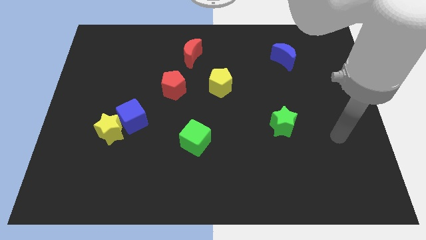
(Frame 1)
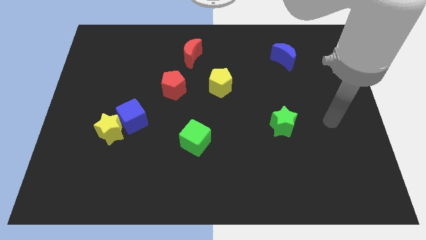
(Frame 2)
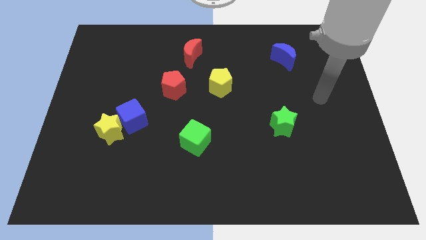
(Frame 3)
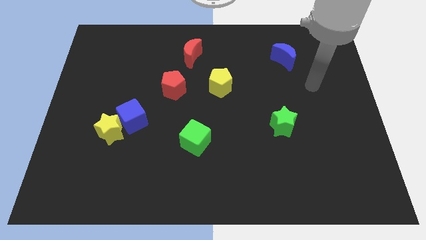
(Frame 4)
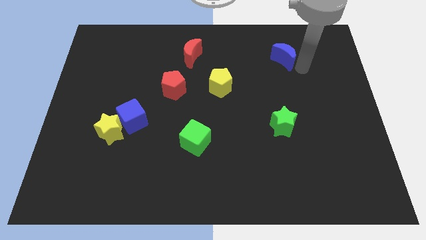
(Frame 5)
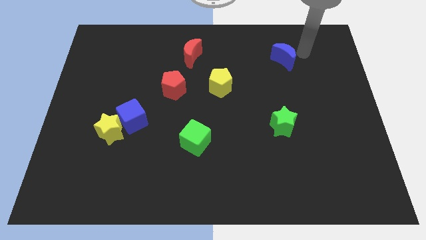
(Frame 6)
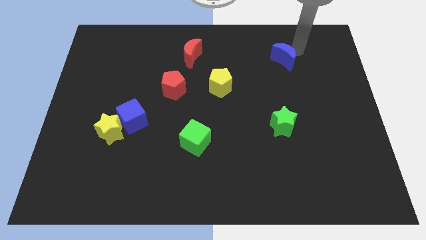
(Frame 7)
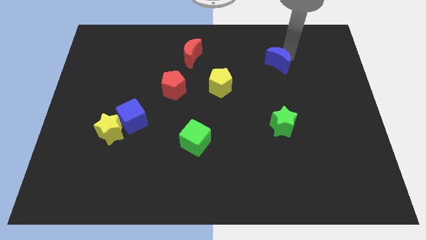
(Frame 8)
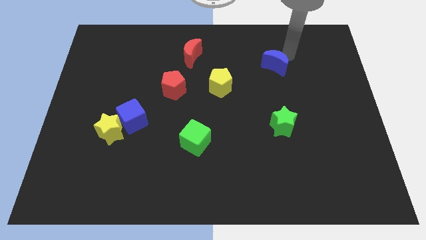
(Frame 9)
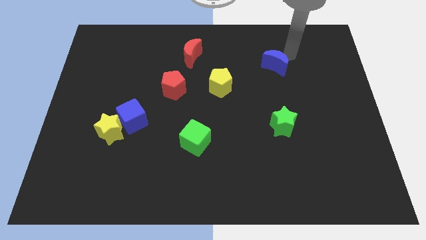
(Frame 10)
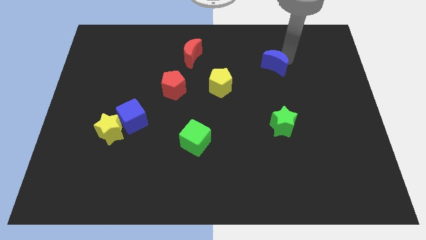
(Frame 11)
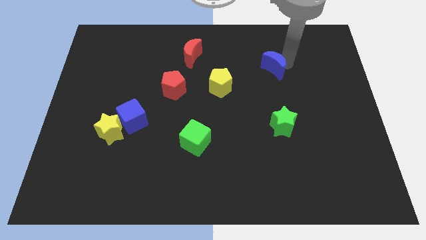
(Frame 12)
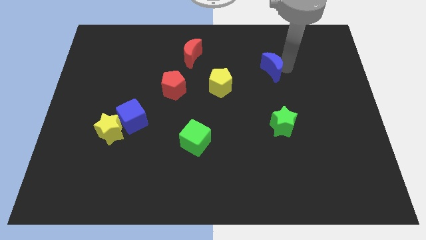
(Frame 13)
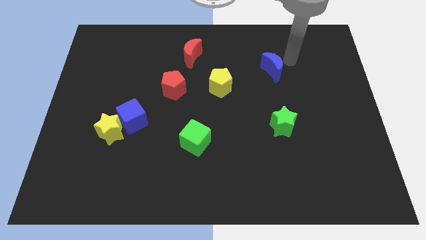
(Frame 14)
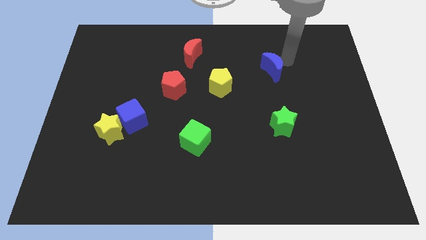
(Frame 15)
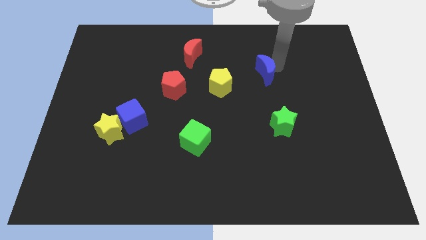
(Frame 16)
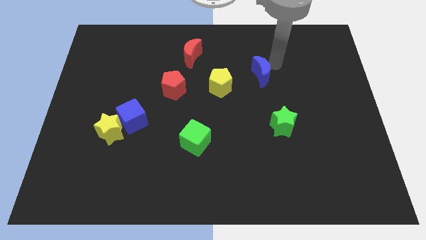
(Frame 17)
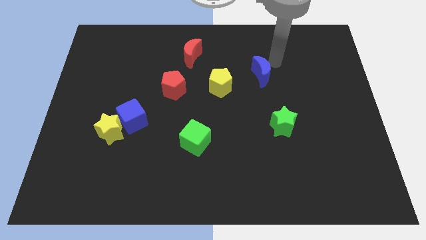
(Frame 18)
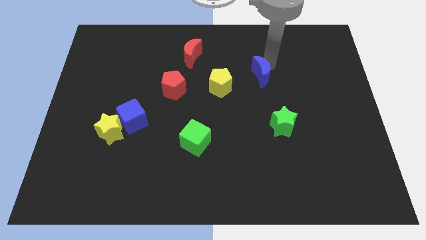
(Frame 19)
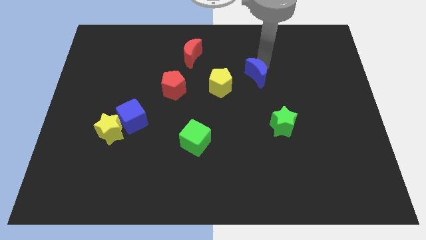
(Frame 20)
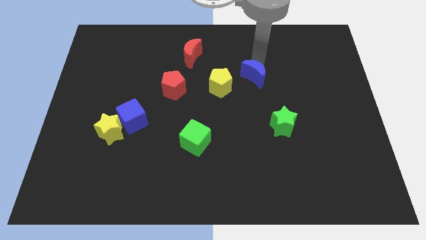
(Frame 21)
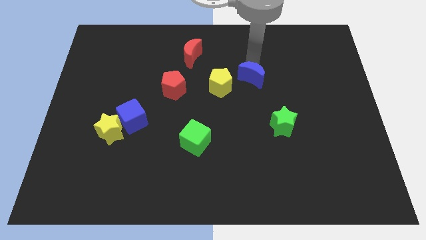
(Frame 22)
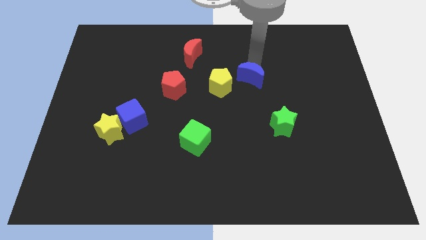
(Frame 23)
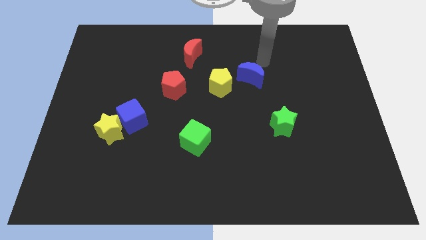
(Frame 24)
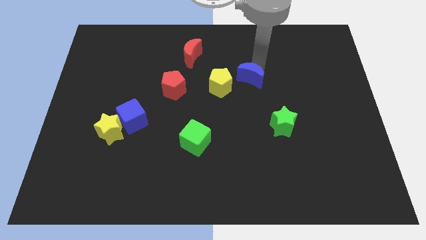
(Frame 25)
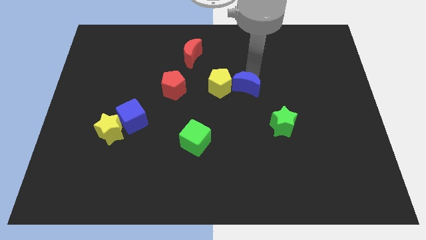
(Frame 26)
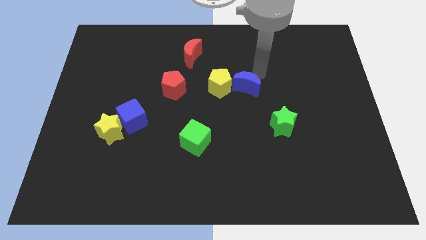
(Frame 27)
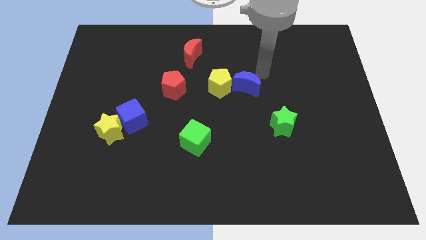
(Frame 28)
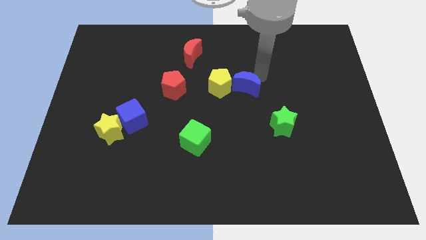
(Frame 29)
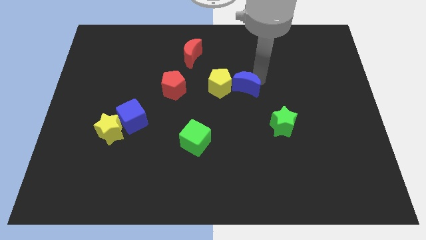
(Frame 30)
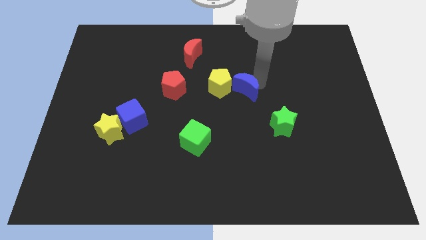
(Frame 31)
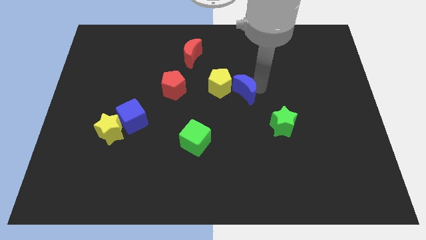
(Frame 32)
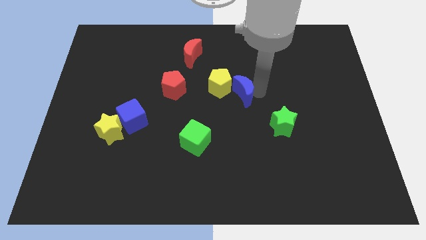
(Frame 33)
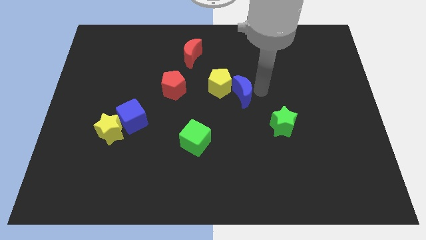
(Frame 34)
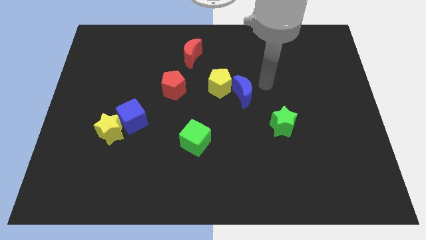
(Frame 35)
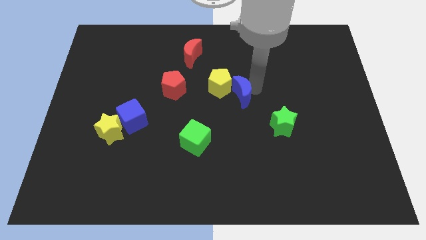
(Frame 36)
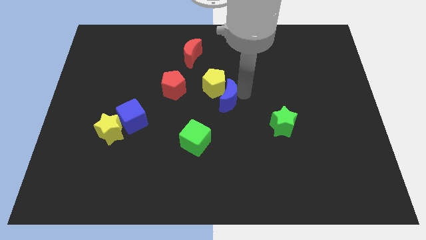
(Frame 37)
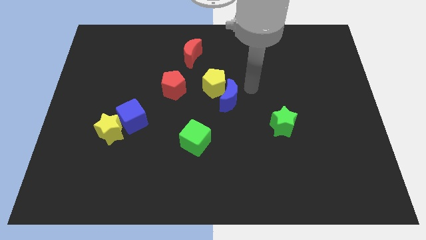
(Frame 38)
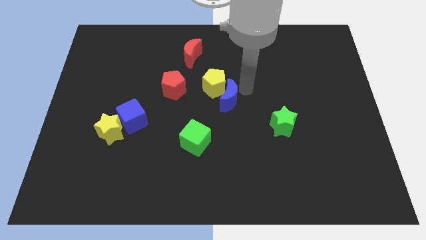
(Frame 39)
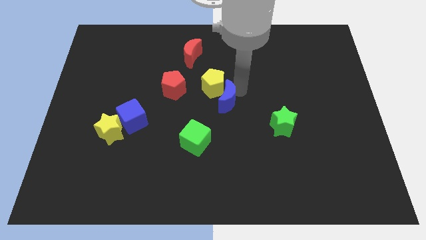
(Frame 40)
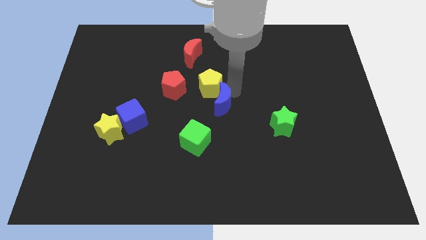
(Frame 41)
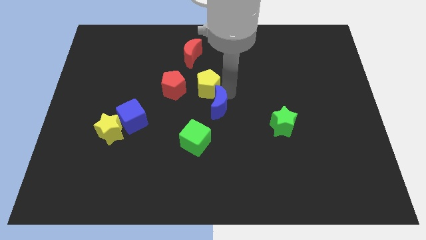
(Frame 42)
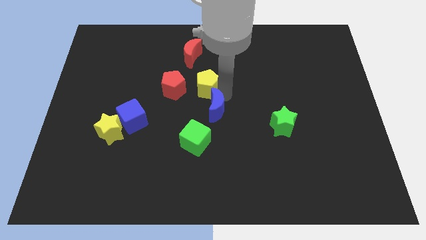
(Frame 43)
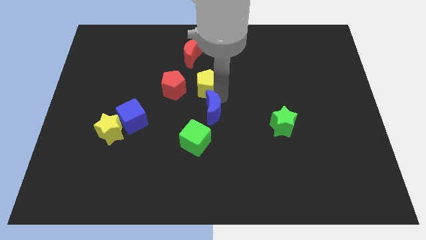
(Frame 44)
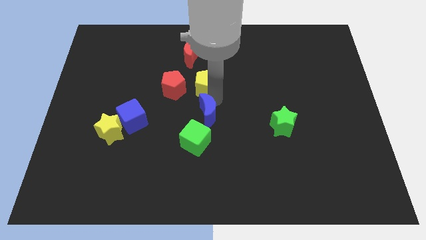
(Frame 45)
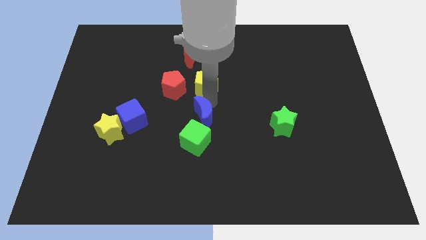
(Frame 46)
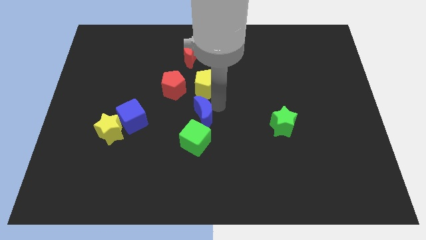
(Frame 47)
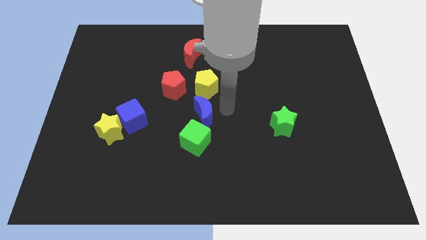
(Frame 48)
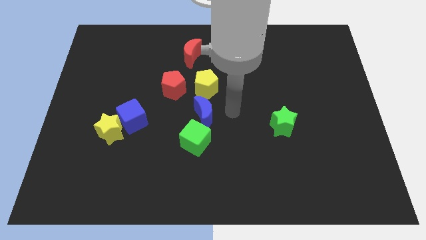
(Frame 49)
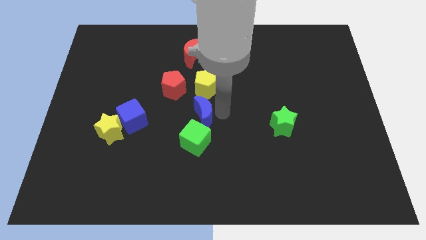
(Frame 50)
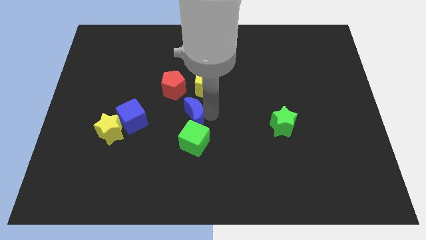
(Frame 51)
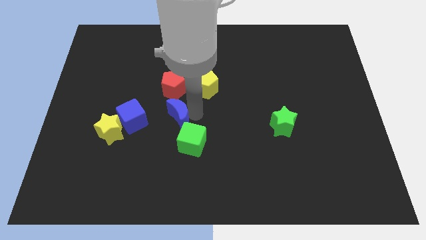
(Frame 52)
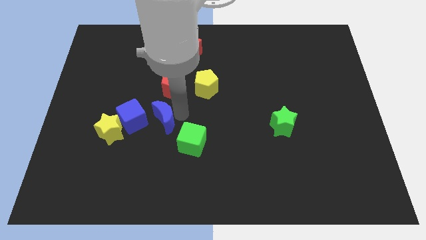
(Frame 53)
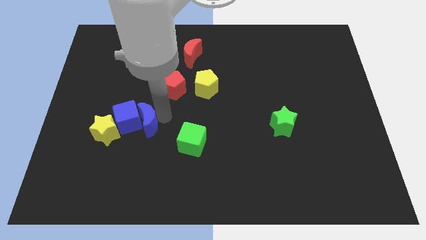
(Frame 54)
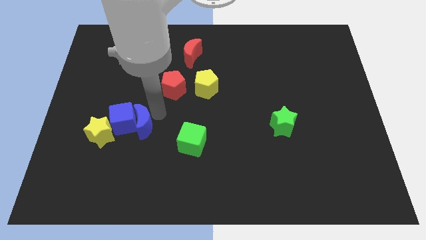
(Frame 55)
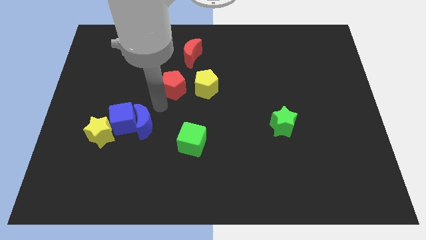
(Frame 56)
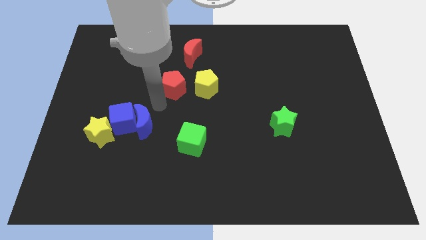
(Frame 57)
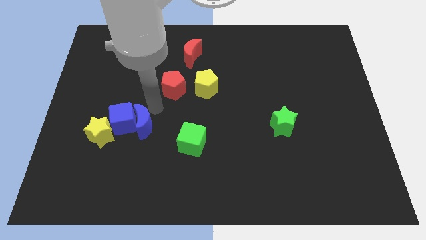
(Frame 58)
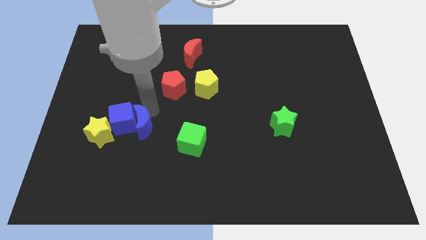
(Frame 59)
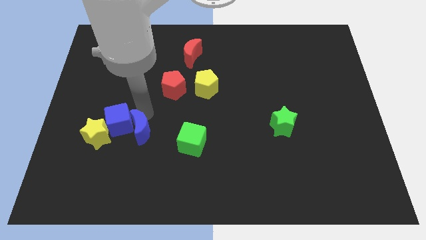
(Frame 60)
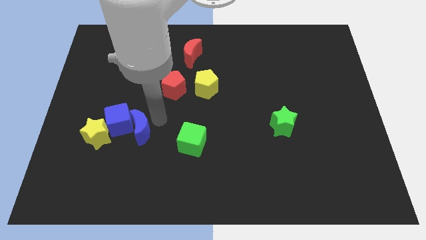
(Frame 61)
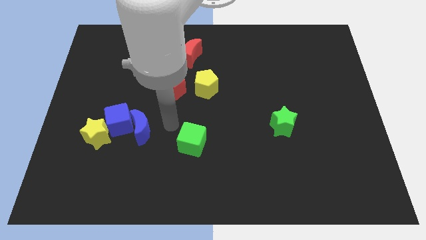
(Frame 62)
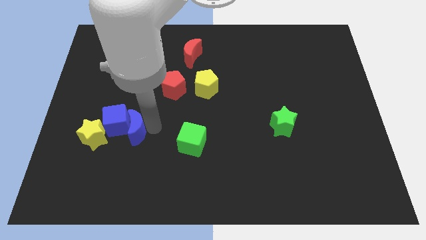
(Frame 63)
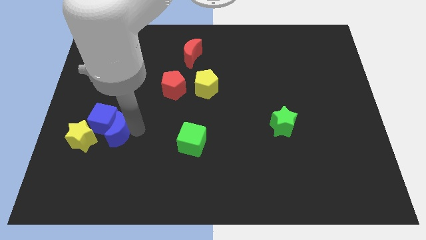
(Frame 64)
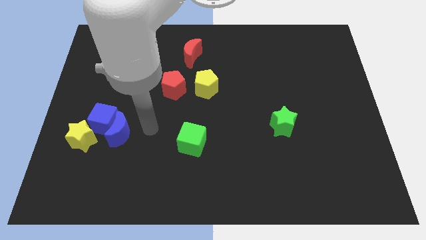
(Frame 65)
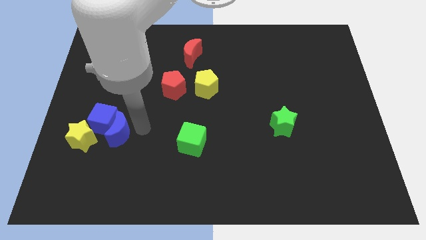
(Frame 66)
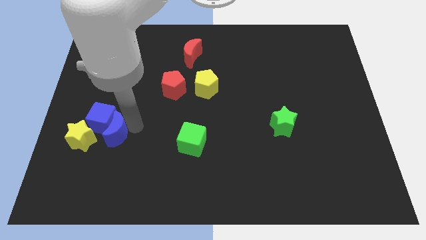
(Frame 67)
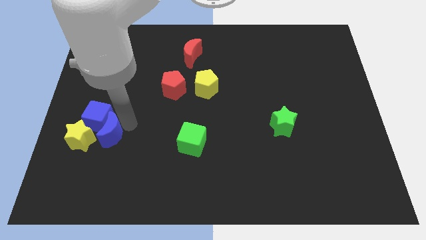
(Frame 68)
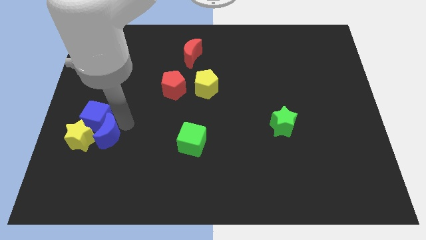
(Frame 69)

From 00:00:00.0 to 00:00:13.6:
put the blue moon to the yellow star

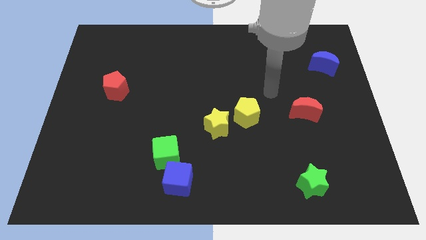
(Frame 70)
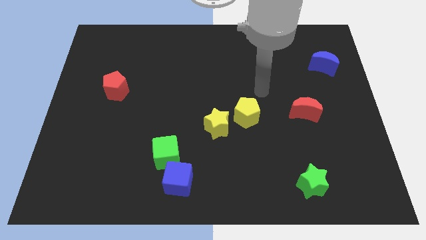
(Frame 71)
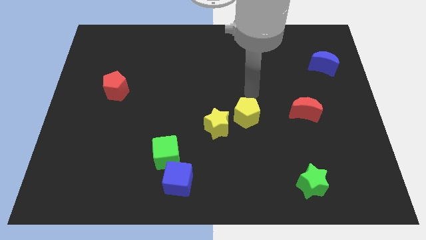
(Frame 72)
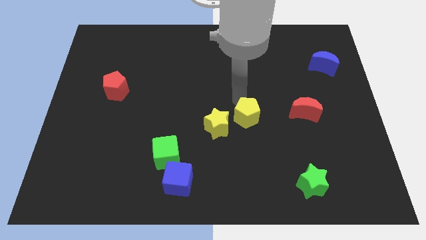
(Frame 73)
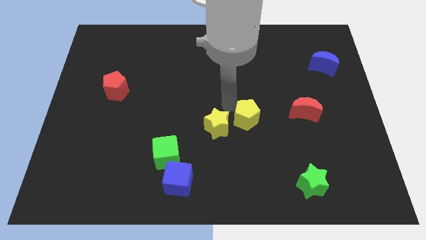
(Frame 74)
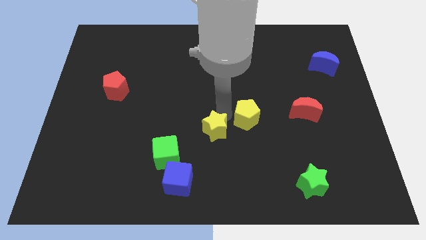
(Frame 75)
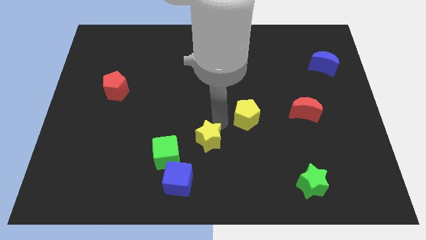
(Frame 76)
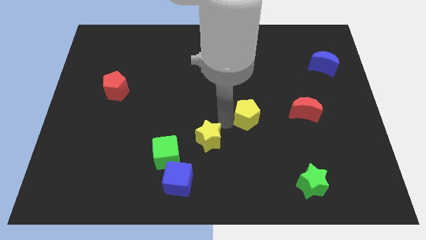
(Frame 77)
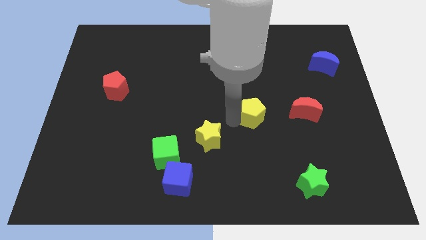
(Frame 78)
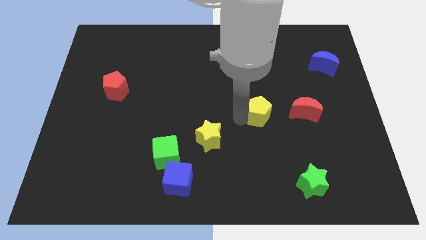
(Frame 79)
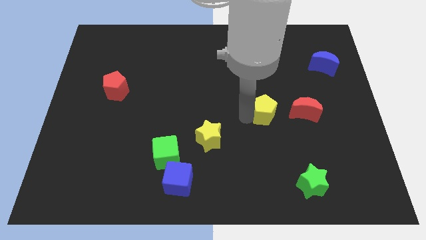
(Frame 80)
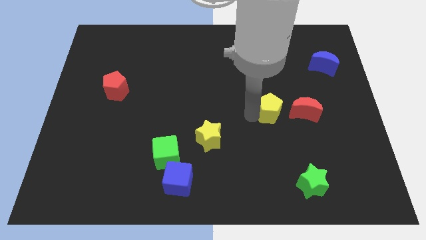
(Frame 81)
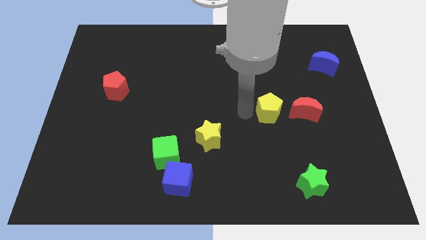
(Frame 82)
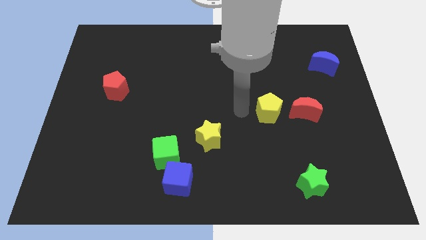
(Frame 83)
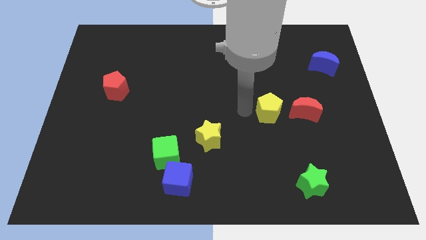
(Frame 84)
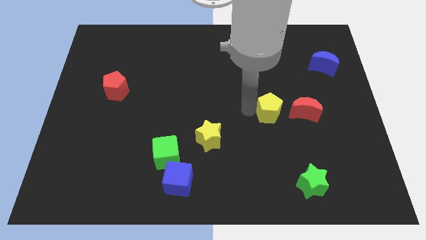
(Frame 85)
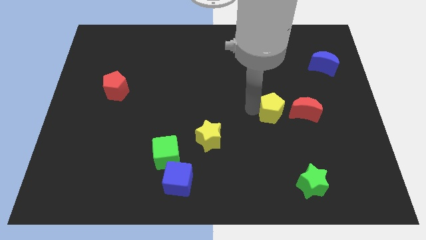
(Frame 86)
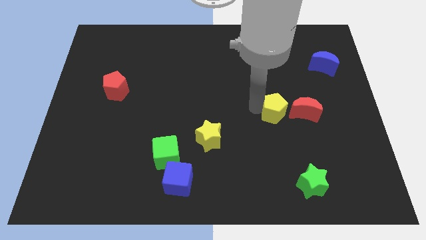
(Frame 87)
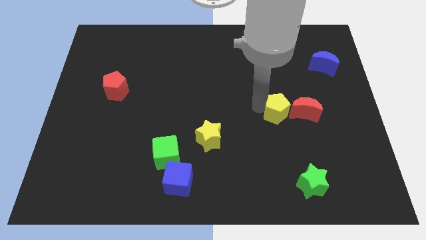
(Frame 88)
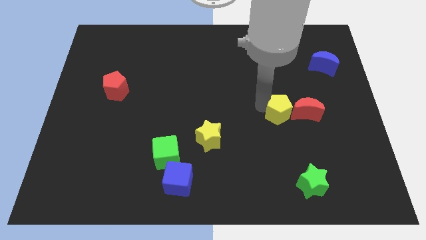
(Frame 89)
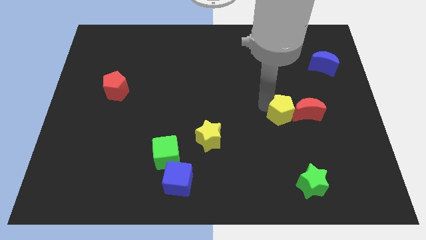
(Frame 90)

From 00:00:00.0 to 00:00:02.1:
move the yellow pentagon towards the red moon
